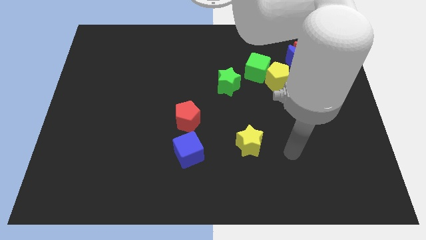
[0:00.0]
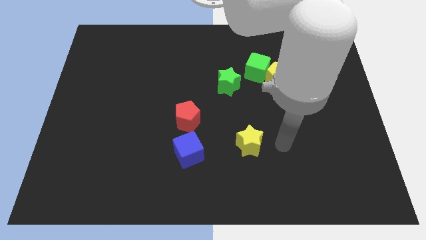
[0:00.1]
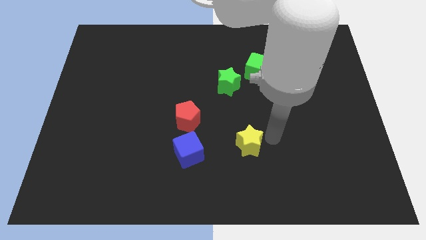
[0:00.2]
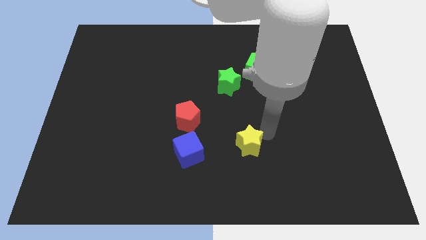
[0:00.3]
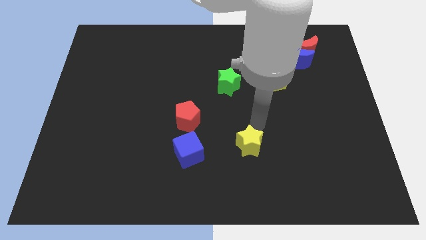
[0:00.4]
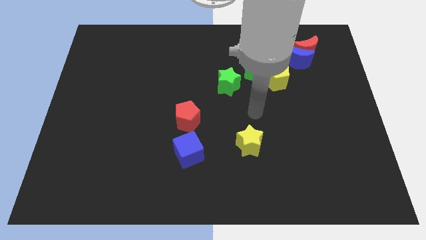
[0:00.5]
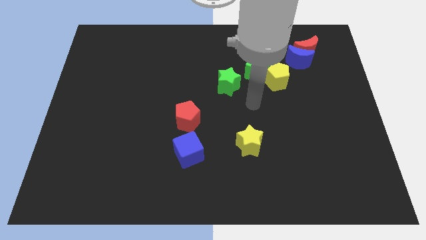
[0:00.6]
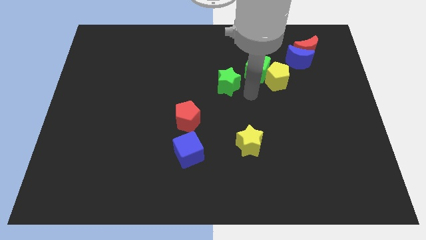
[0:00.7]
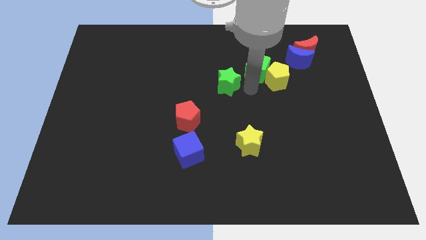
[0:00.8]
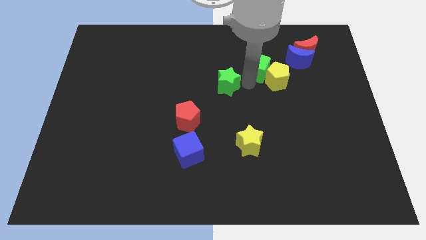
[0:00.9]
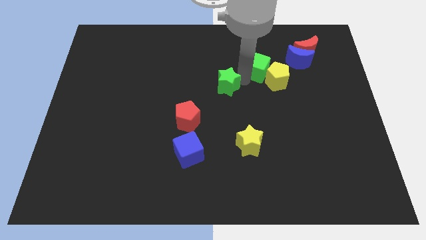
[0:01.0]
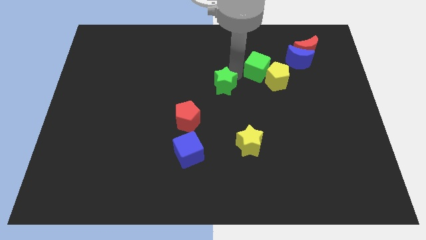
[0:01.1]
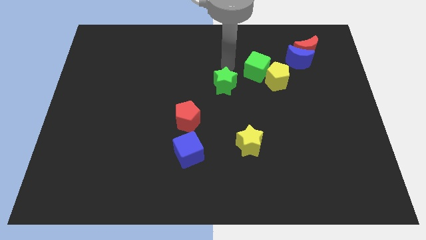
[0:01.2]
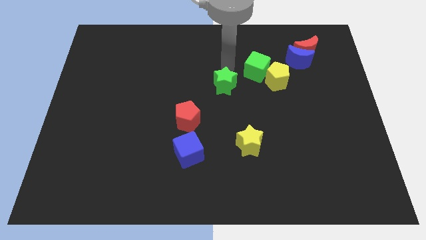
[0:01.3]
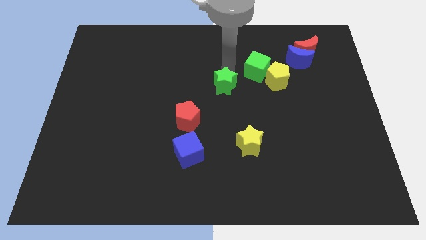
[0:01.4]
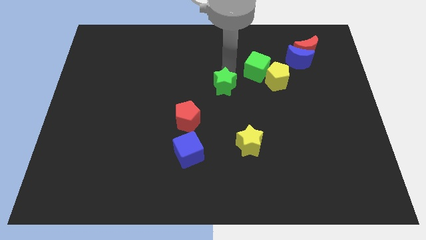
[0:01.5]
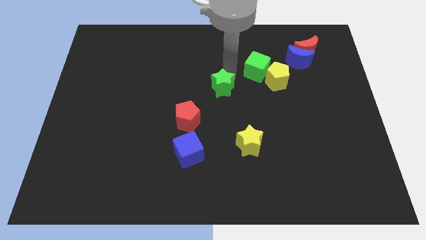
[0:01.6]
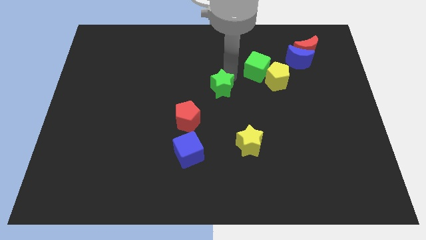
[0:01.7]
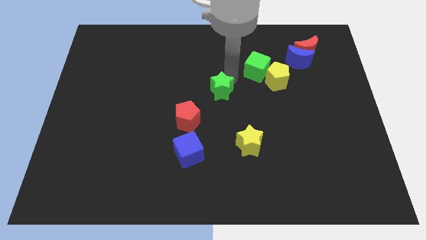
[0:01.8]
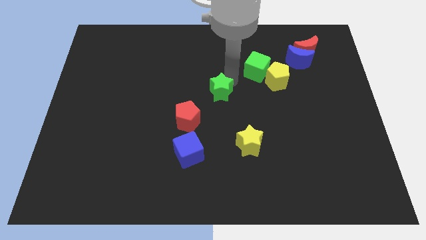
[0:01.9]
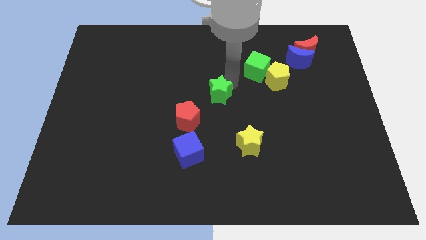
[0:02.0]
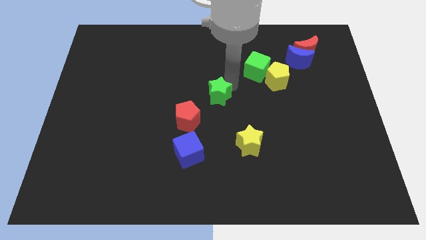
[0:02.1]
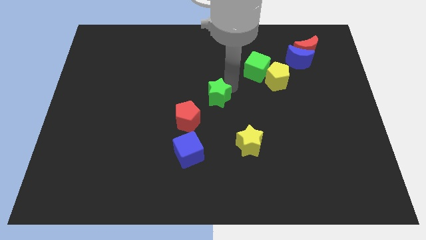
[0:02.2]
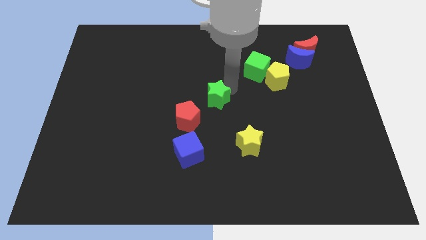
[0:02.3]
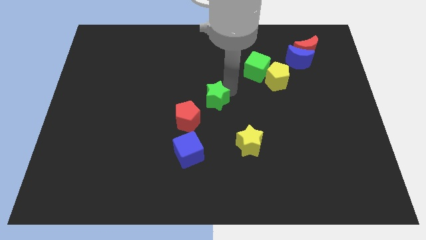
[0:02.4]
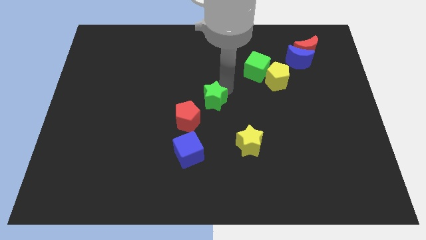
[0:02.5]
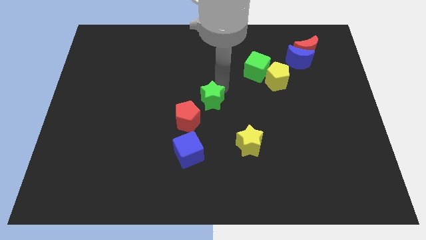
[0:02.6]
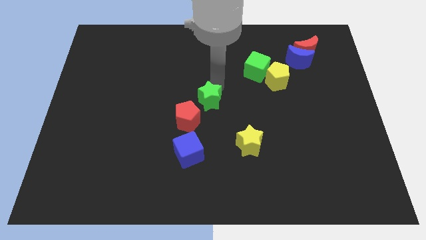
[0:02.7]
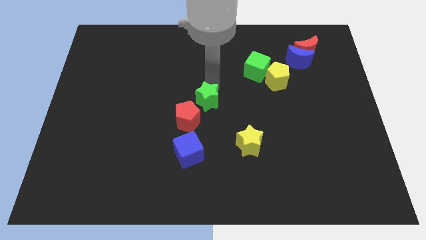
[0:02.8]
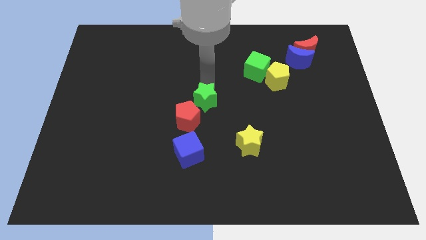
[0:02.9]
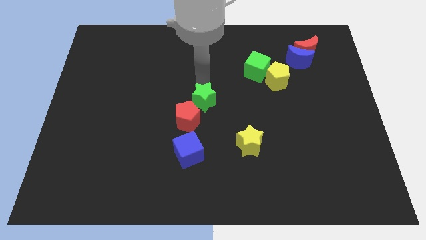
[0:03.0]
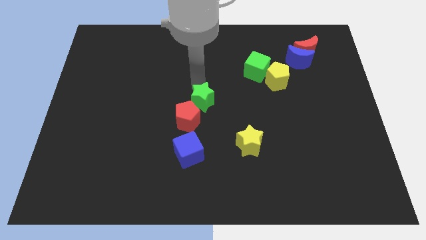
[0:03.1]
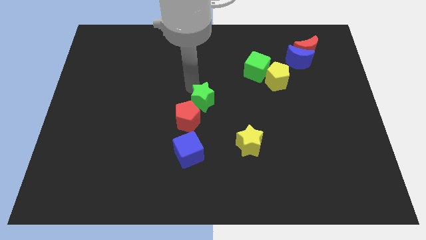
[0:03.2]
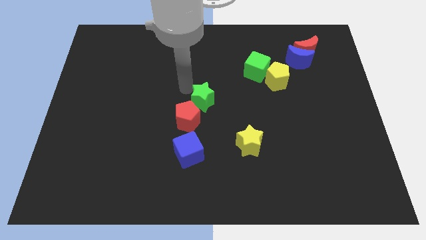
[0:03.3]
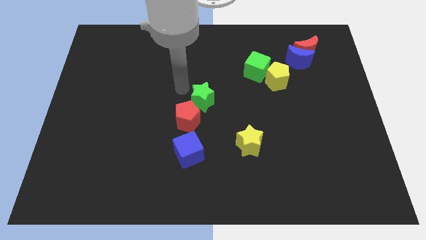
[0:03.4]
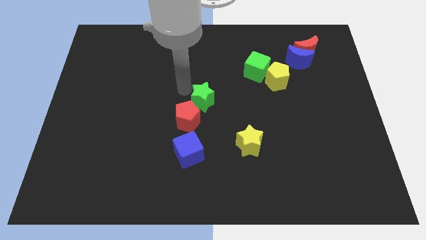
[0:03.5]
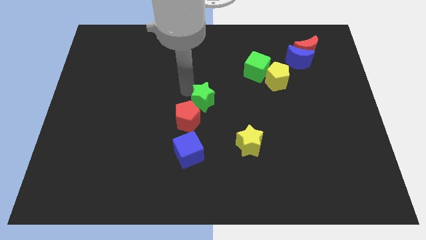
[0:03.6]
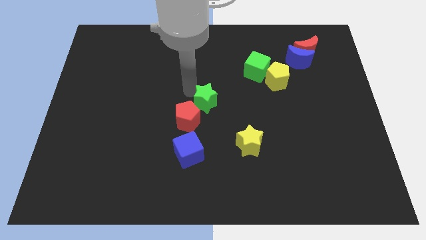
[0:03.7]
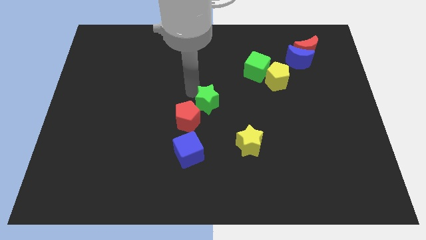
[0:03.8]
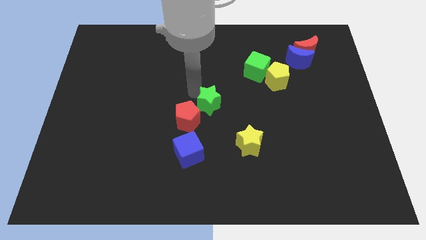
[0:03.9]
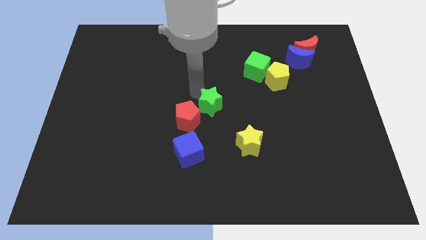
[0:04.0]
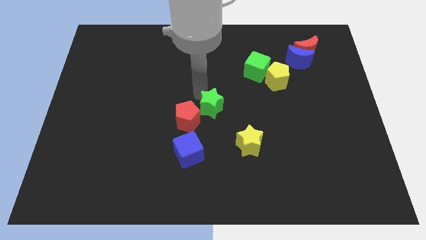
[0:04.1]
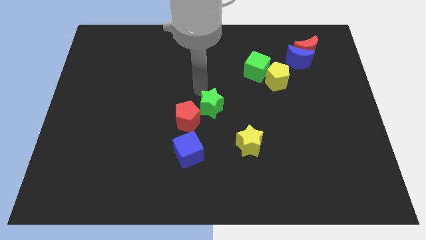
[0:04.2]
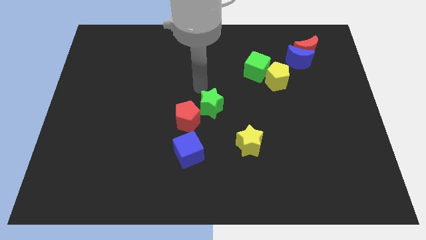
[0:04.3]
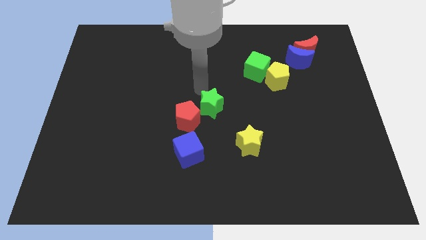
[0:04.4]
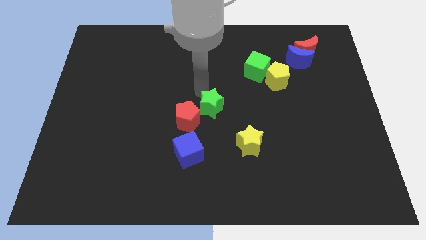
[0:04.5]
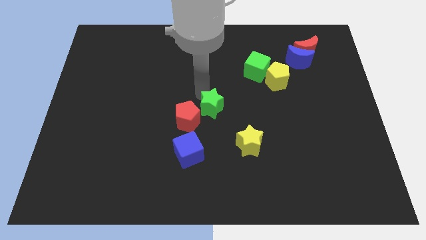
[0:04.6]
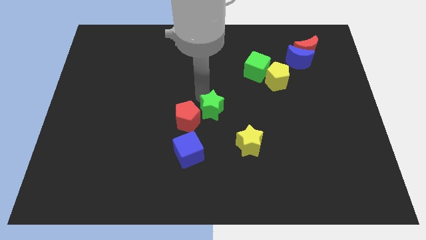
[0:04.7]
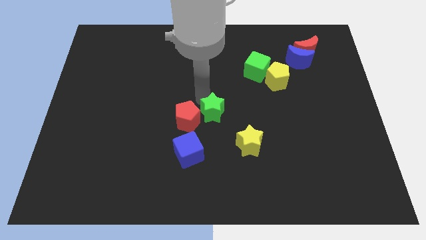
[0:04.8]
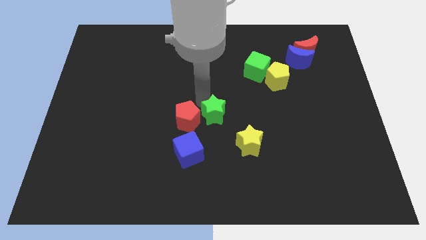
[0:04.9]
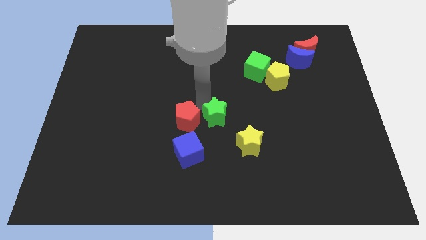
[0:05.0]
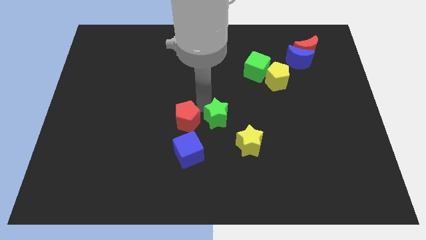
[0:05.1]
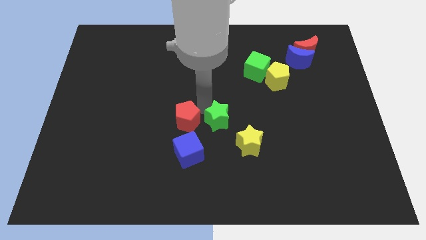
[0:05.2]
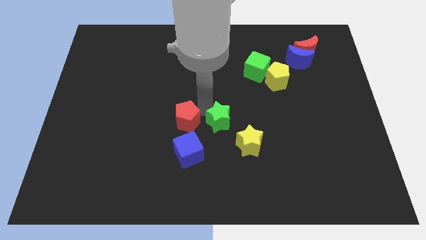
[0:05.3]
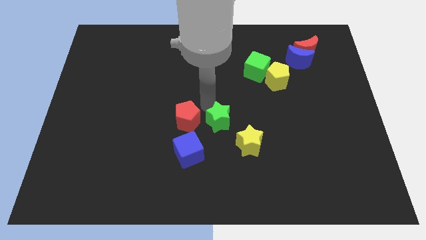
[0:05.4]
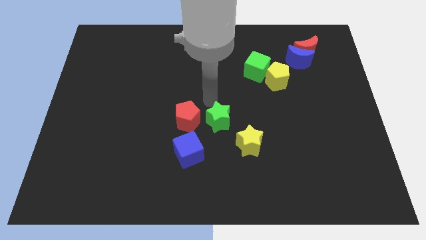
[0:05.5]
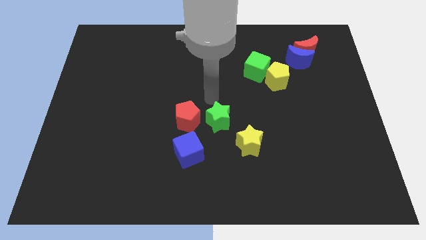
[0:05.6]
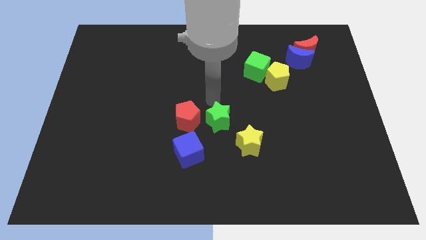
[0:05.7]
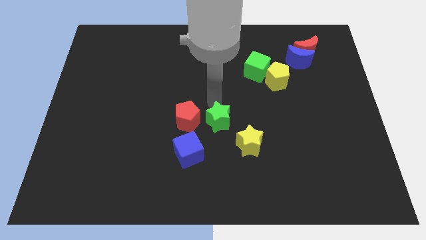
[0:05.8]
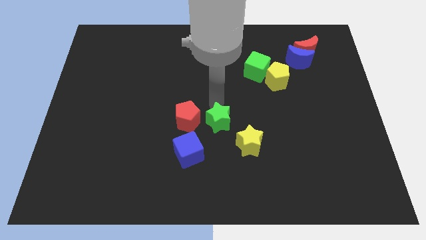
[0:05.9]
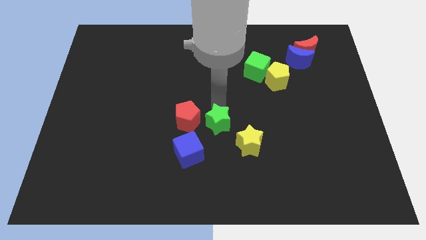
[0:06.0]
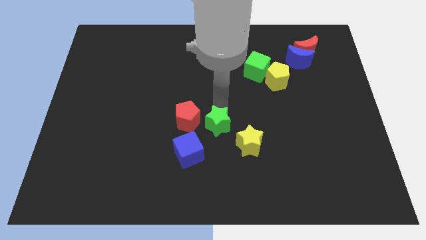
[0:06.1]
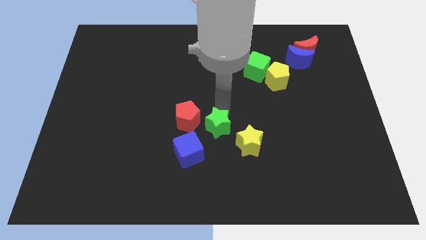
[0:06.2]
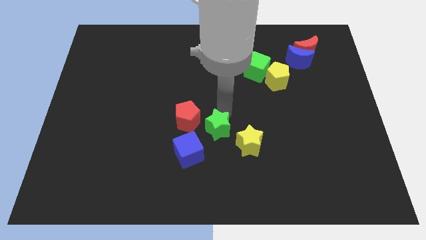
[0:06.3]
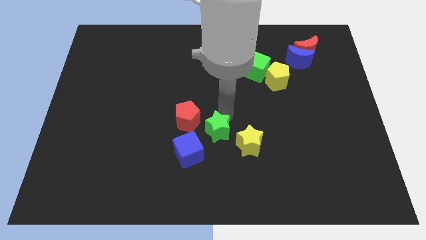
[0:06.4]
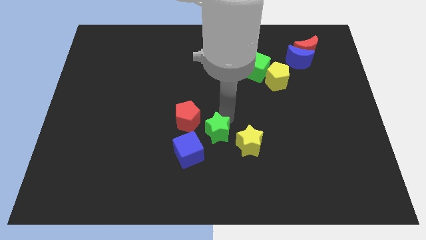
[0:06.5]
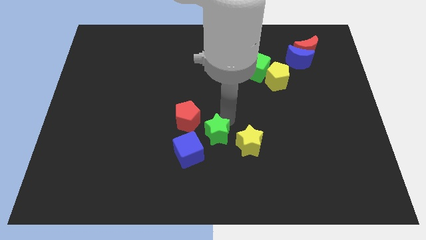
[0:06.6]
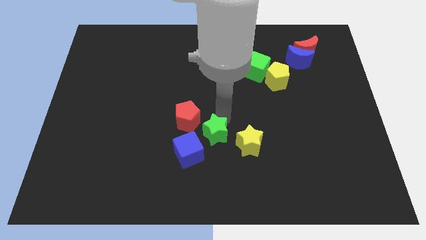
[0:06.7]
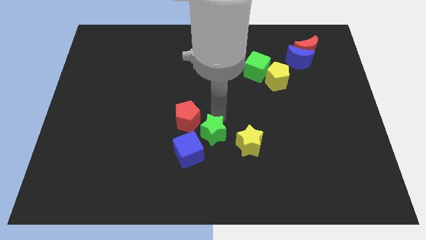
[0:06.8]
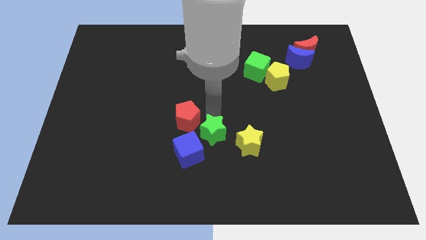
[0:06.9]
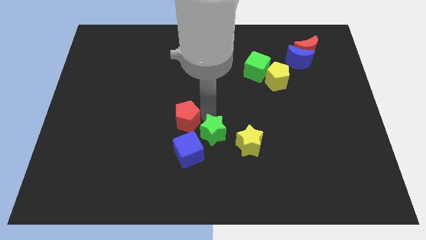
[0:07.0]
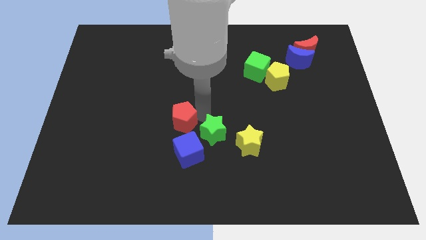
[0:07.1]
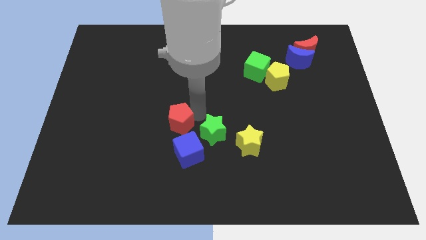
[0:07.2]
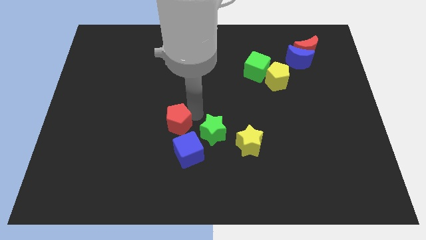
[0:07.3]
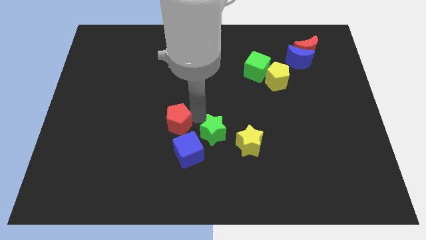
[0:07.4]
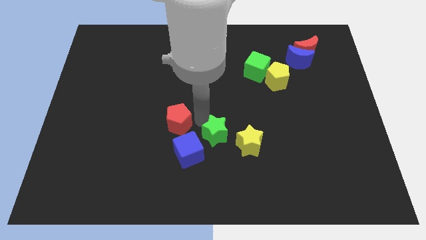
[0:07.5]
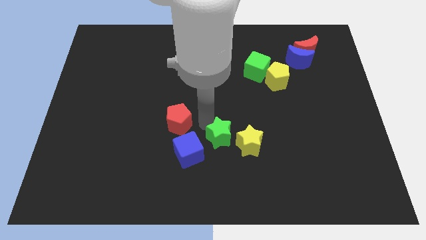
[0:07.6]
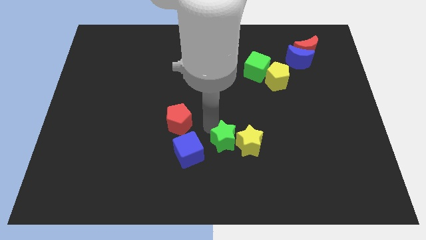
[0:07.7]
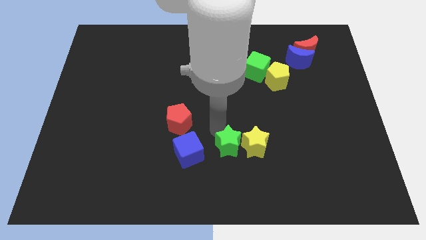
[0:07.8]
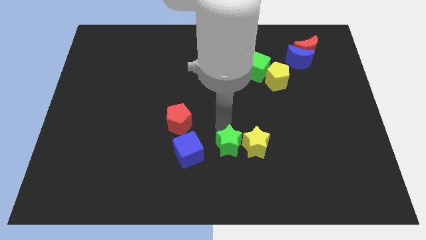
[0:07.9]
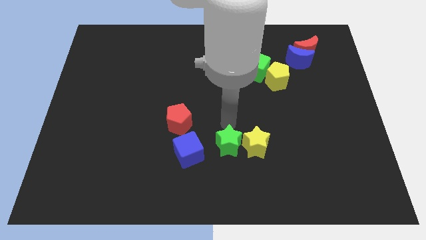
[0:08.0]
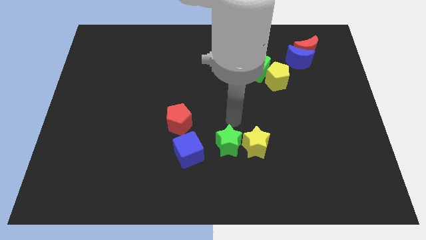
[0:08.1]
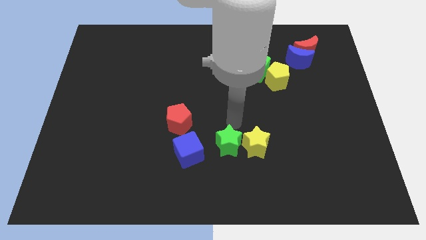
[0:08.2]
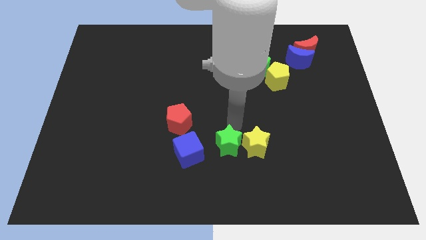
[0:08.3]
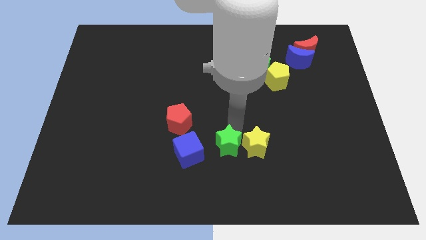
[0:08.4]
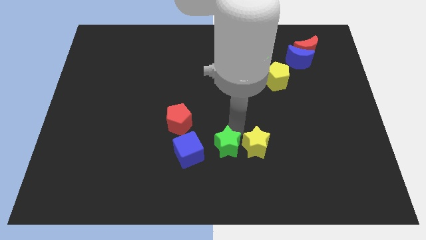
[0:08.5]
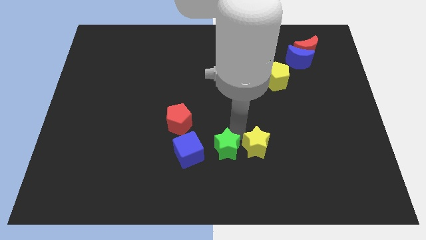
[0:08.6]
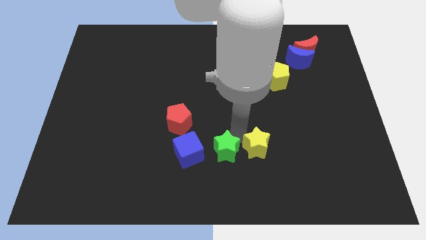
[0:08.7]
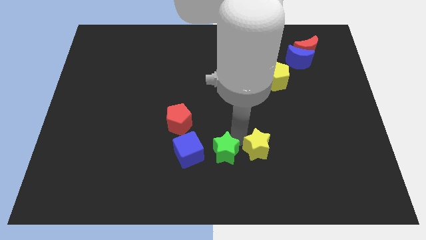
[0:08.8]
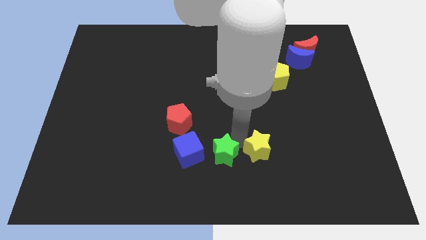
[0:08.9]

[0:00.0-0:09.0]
put the green star to the bottom side
